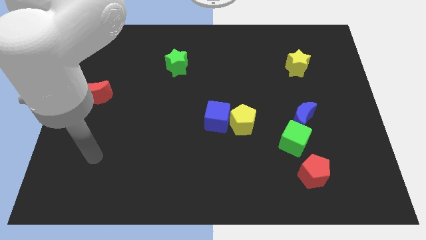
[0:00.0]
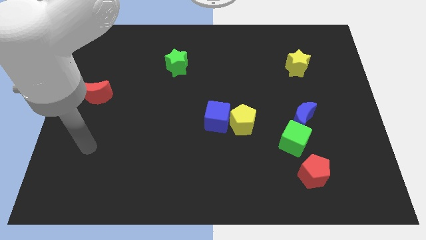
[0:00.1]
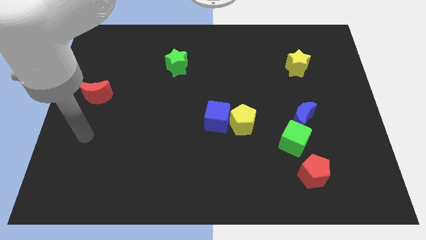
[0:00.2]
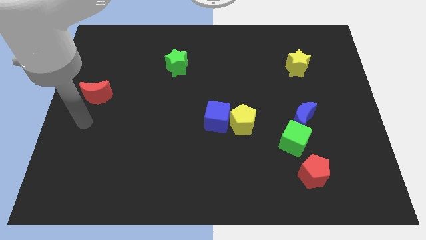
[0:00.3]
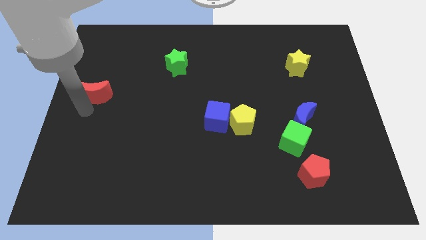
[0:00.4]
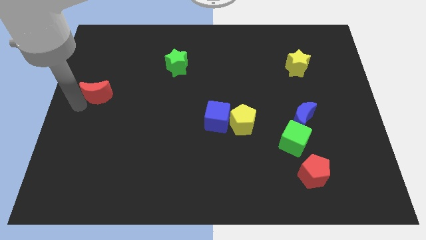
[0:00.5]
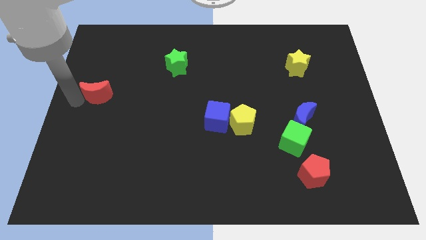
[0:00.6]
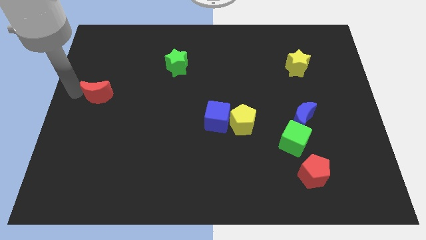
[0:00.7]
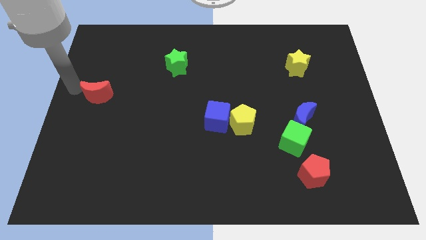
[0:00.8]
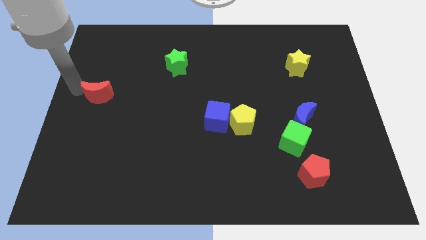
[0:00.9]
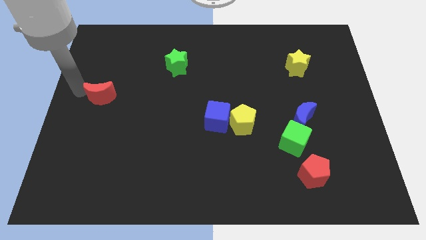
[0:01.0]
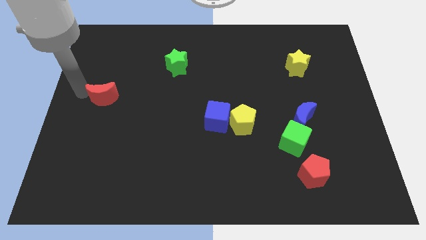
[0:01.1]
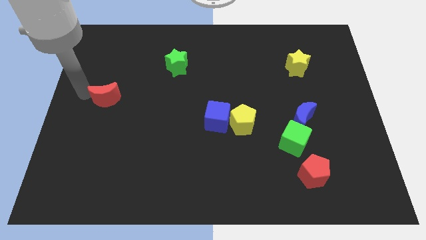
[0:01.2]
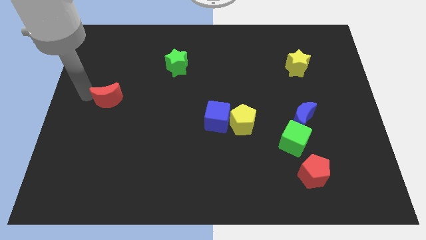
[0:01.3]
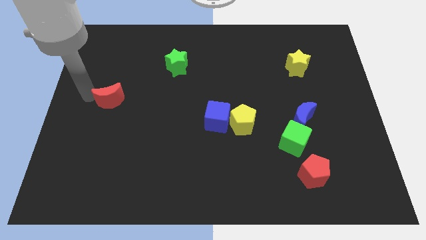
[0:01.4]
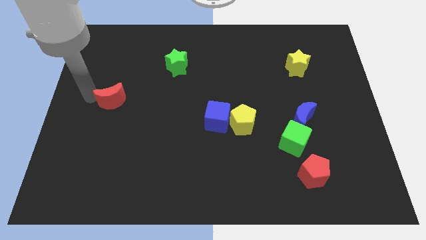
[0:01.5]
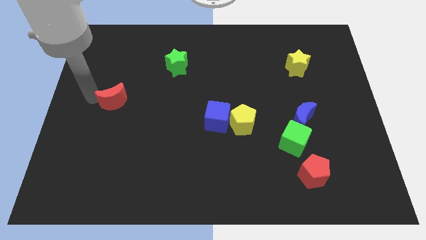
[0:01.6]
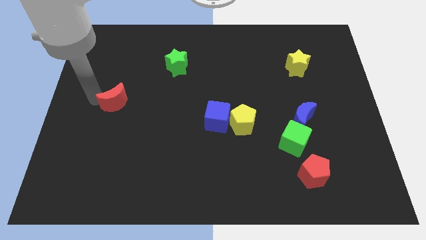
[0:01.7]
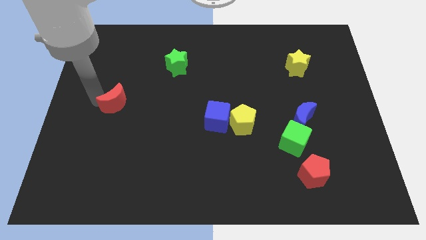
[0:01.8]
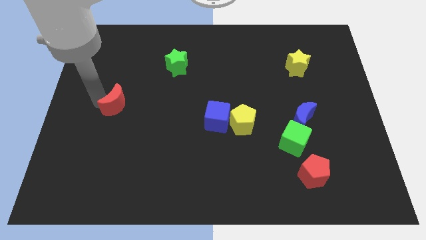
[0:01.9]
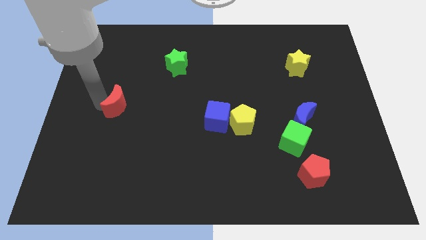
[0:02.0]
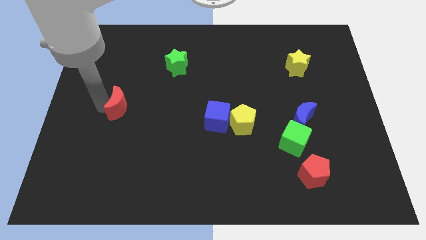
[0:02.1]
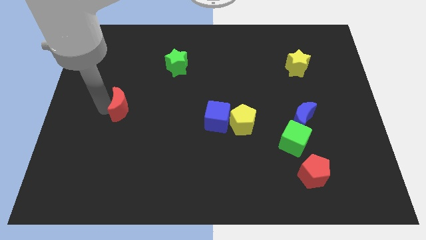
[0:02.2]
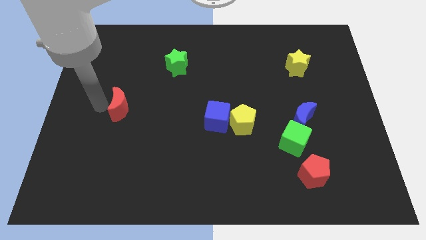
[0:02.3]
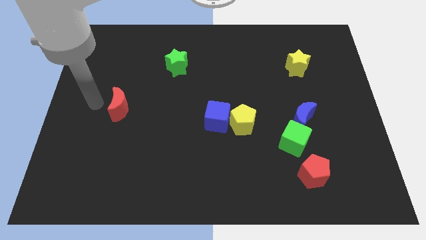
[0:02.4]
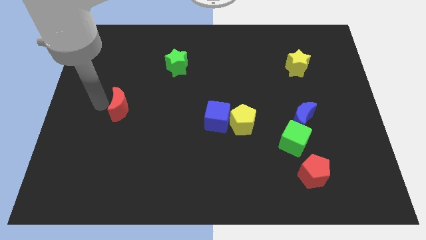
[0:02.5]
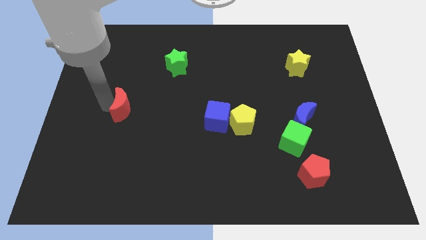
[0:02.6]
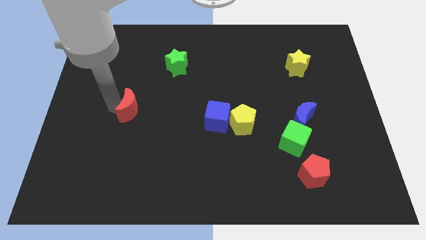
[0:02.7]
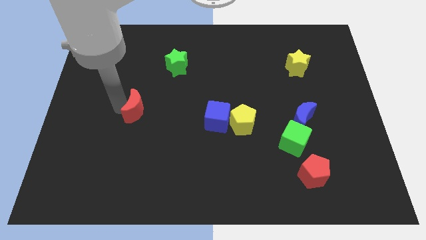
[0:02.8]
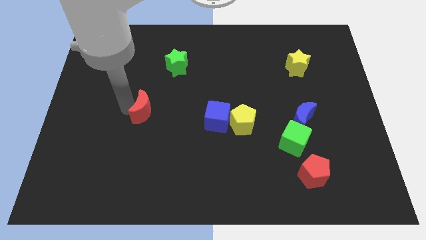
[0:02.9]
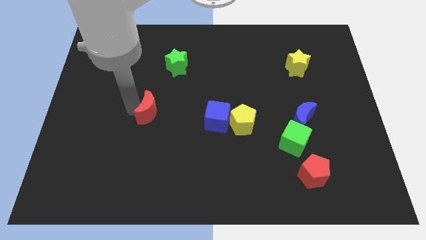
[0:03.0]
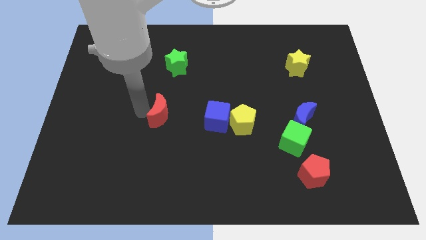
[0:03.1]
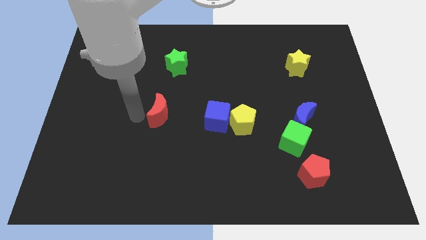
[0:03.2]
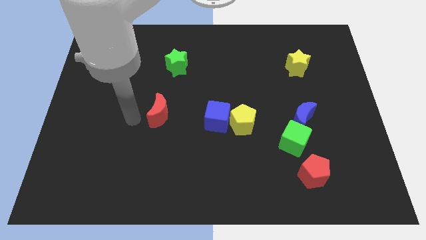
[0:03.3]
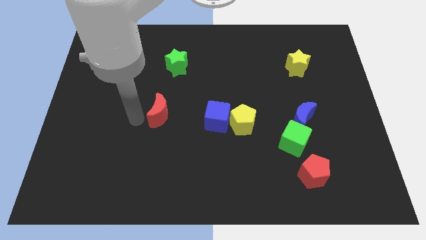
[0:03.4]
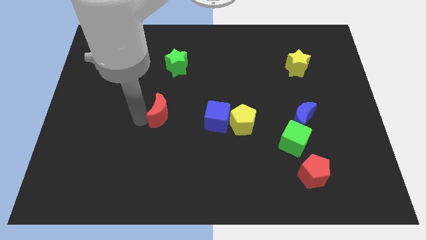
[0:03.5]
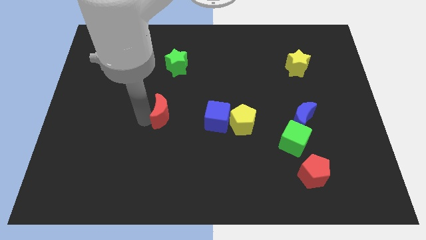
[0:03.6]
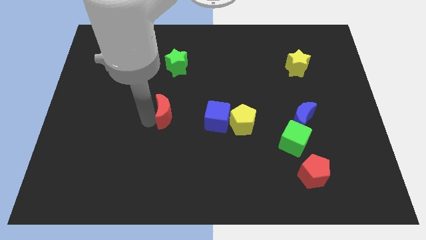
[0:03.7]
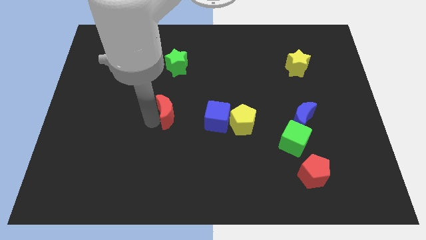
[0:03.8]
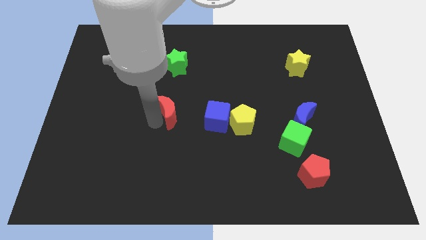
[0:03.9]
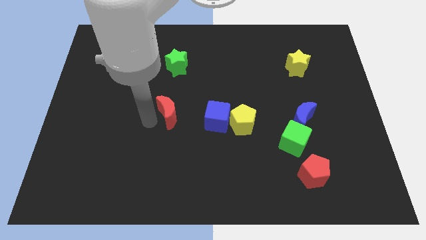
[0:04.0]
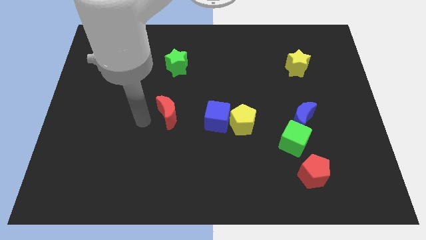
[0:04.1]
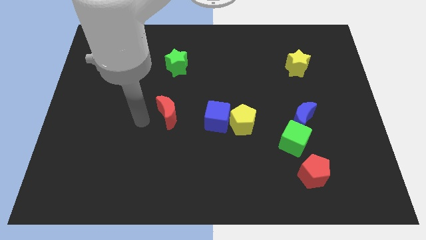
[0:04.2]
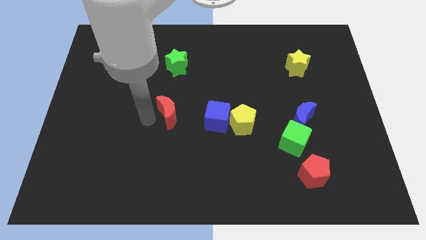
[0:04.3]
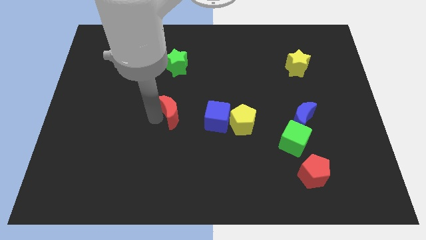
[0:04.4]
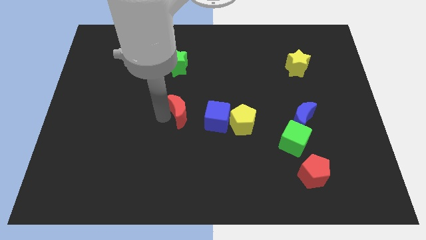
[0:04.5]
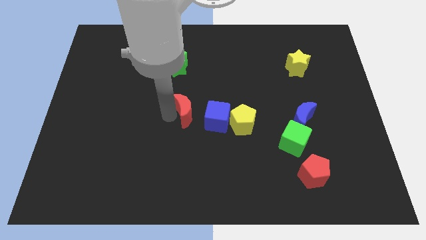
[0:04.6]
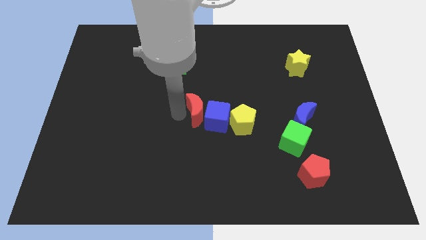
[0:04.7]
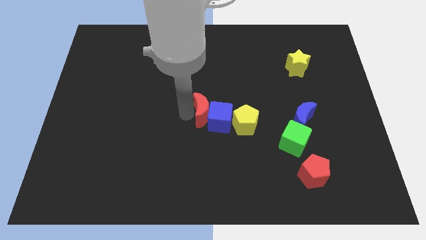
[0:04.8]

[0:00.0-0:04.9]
slide the red moon diagonally up and to the left of the yellow pentagon

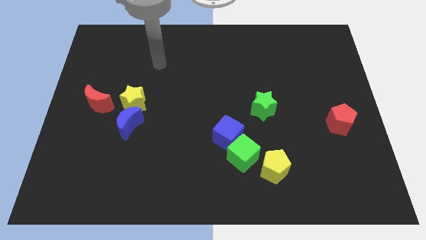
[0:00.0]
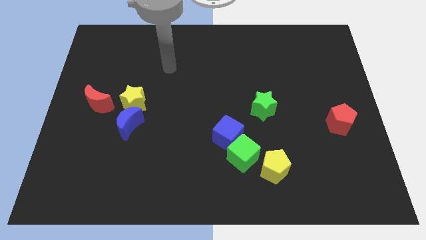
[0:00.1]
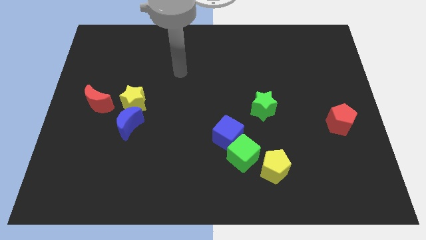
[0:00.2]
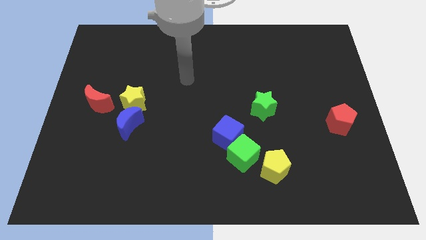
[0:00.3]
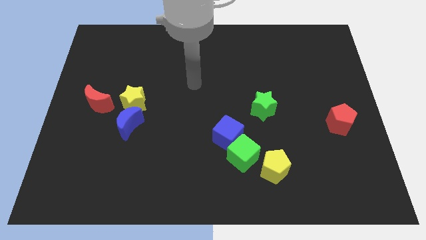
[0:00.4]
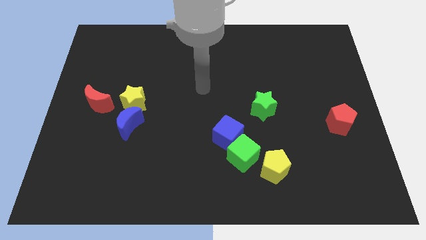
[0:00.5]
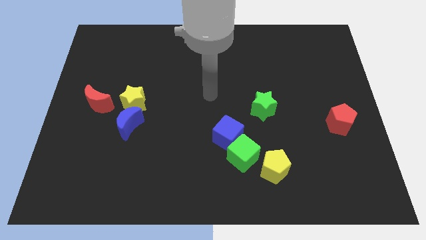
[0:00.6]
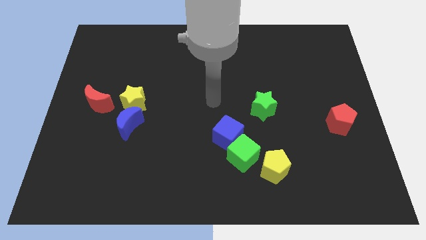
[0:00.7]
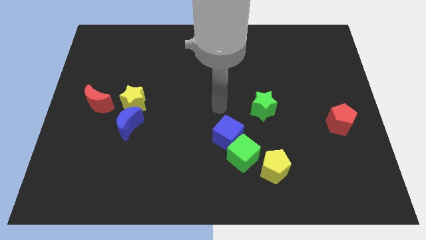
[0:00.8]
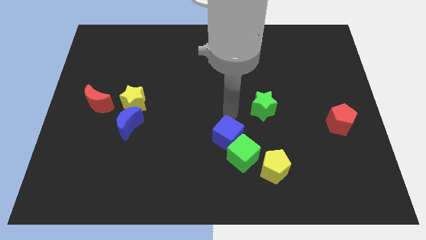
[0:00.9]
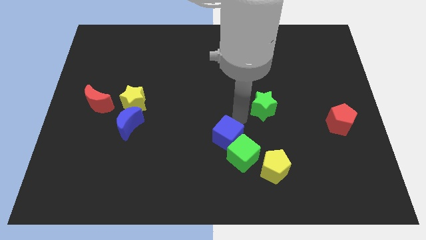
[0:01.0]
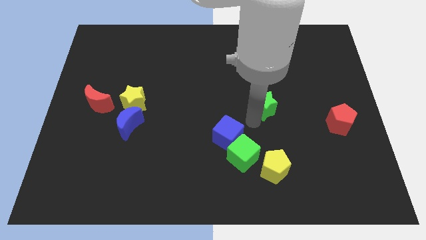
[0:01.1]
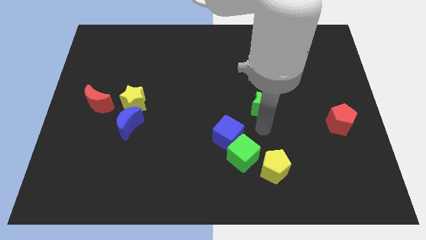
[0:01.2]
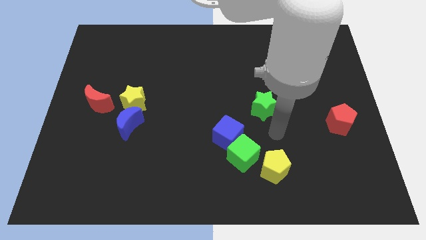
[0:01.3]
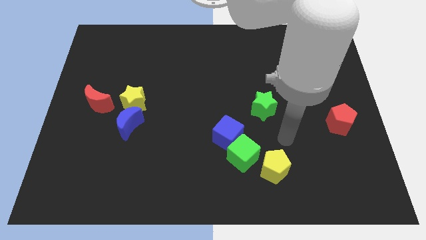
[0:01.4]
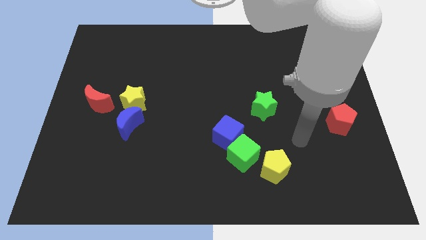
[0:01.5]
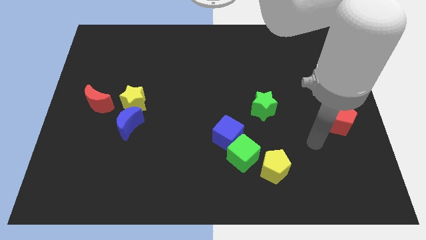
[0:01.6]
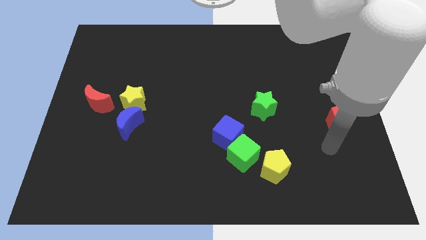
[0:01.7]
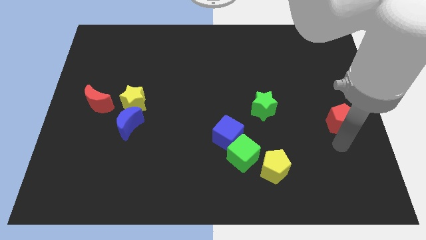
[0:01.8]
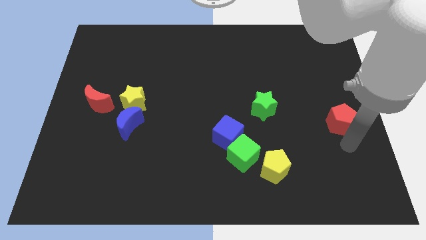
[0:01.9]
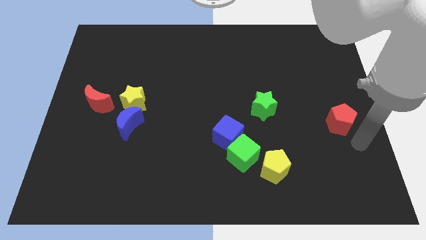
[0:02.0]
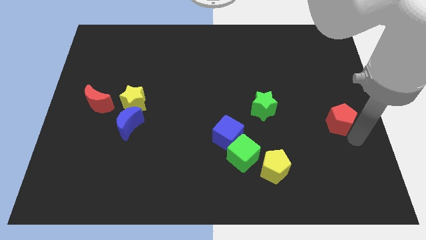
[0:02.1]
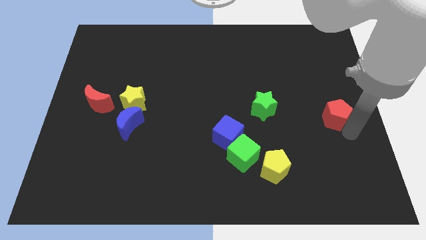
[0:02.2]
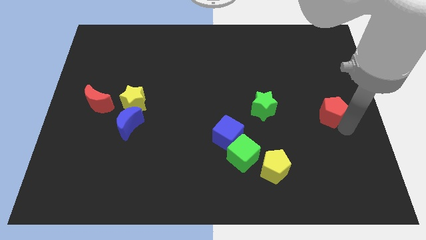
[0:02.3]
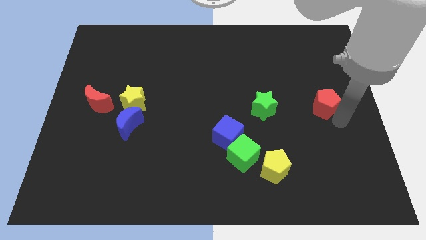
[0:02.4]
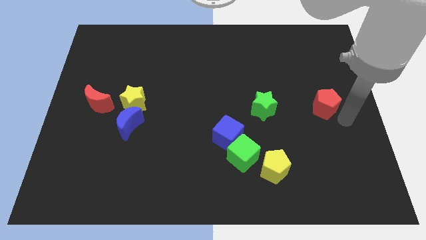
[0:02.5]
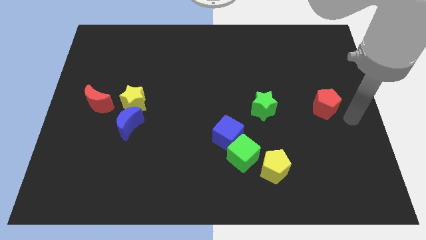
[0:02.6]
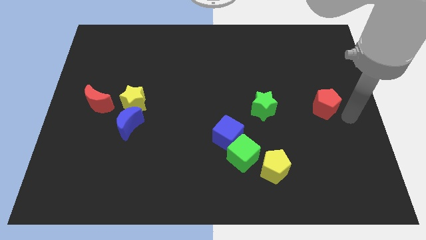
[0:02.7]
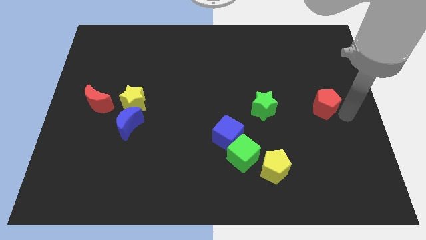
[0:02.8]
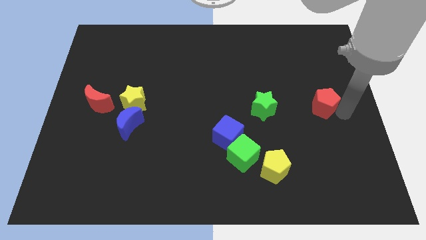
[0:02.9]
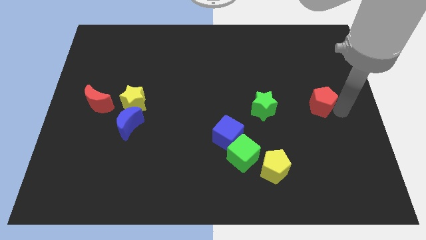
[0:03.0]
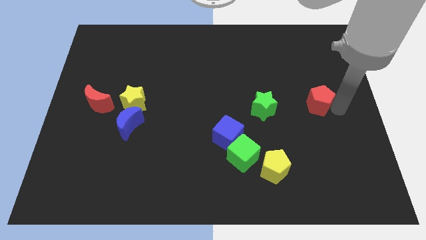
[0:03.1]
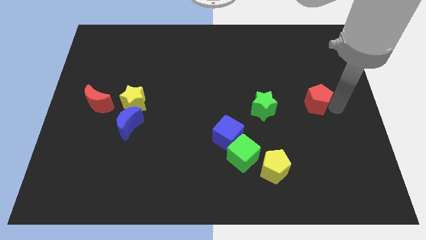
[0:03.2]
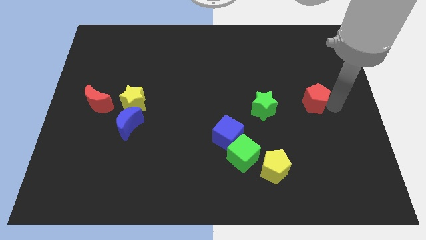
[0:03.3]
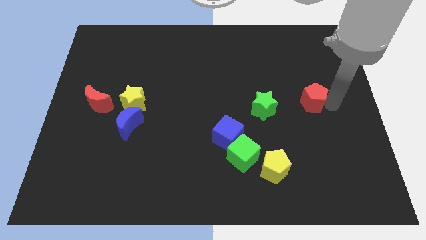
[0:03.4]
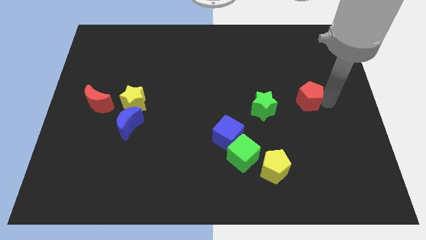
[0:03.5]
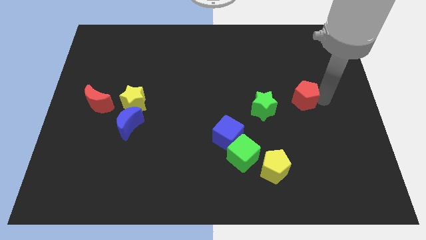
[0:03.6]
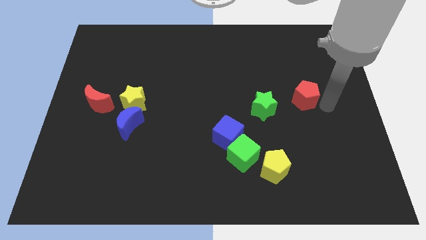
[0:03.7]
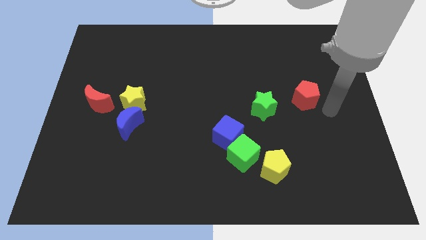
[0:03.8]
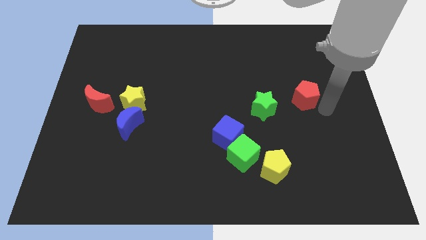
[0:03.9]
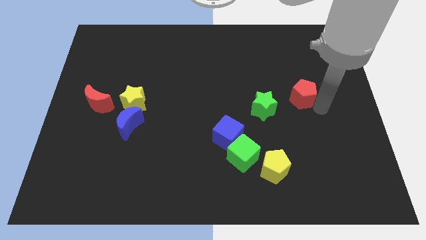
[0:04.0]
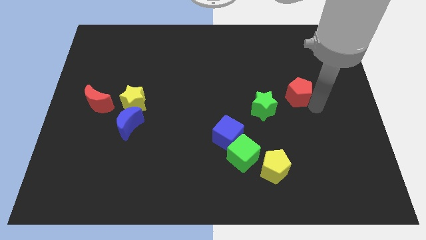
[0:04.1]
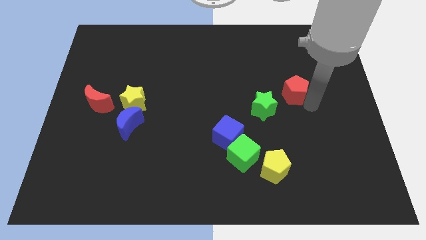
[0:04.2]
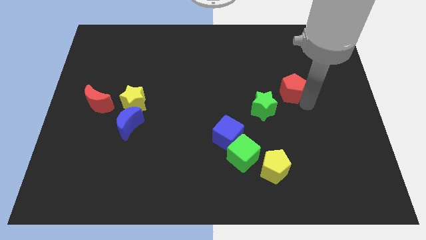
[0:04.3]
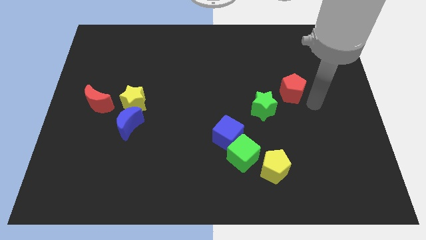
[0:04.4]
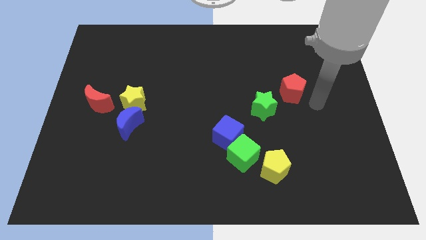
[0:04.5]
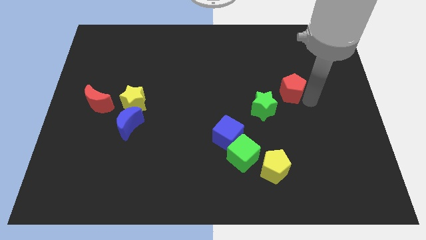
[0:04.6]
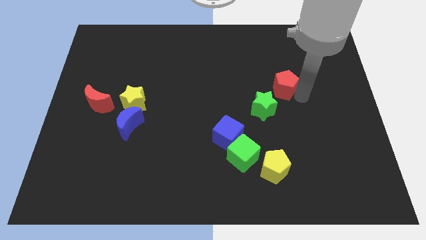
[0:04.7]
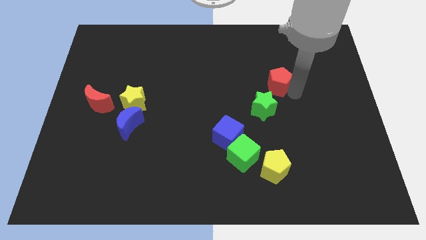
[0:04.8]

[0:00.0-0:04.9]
move the red pentagon to the top of the green star
